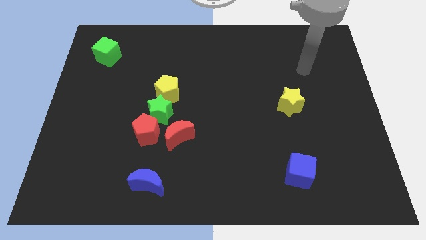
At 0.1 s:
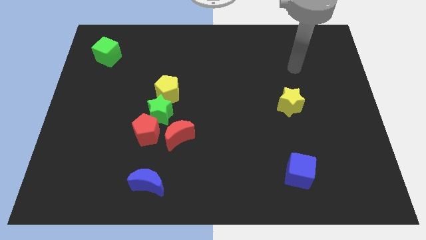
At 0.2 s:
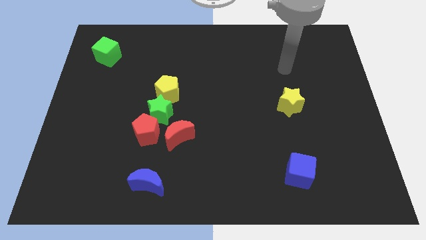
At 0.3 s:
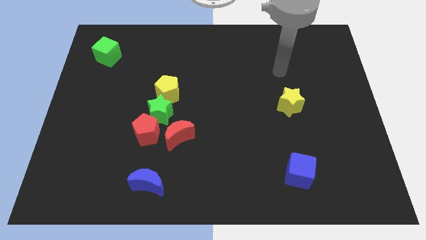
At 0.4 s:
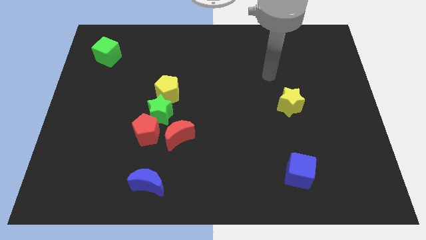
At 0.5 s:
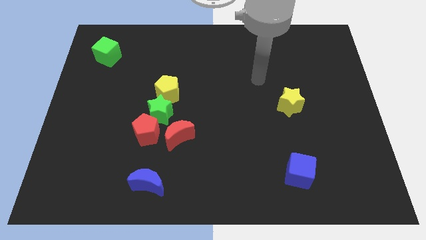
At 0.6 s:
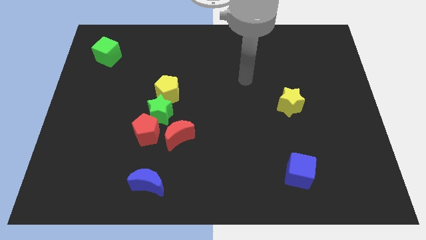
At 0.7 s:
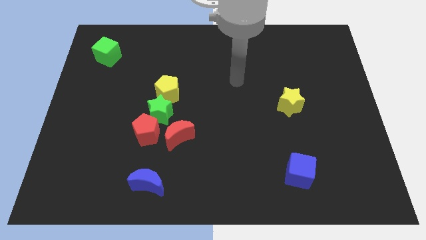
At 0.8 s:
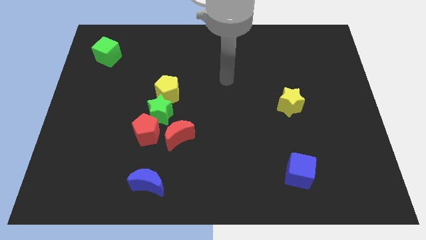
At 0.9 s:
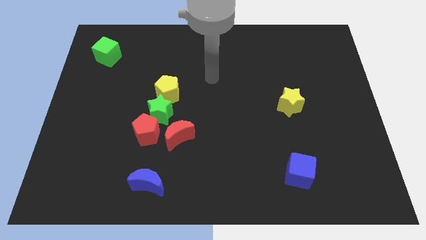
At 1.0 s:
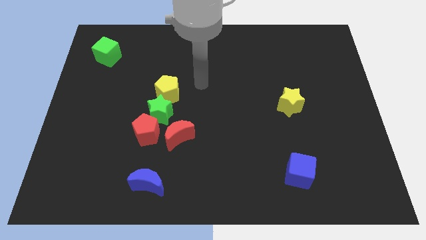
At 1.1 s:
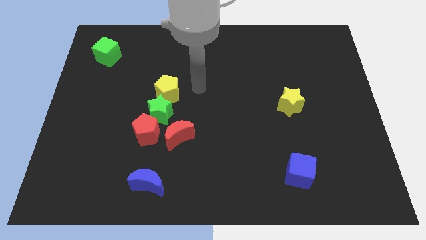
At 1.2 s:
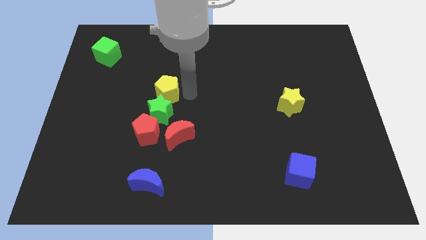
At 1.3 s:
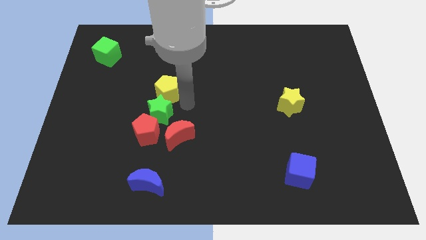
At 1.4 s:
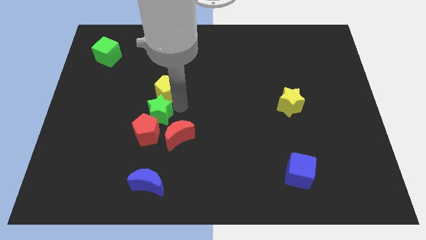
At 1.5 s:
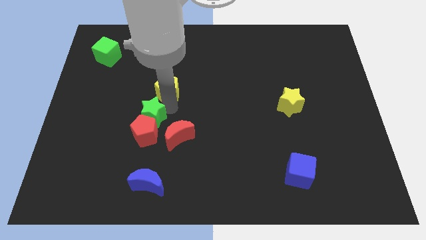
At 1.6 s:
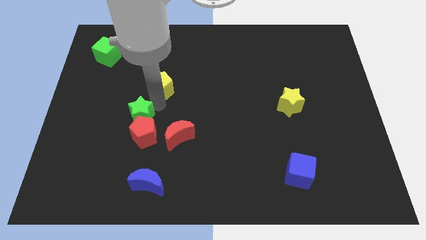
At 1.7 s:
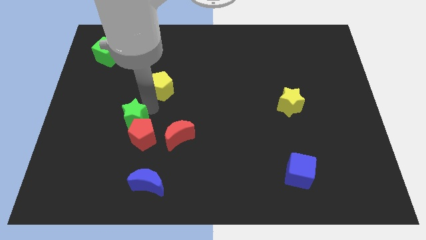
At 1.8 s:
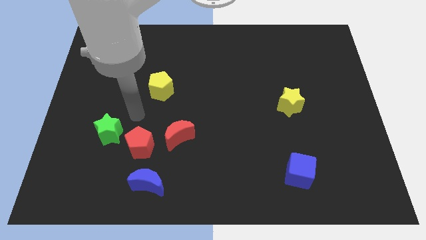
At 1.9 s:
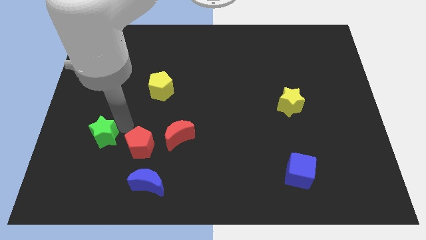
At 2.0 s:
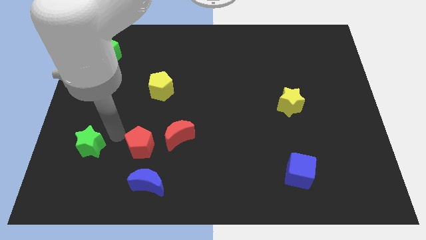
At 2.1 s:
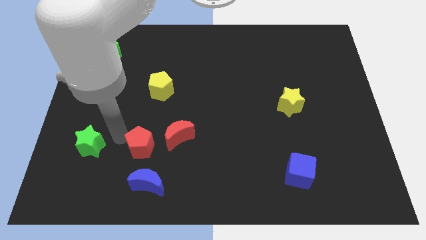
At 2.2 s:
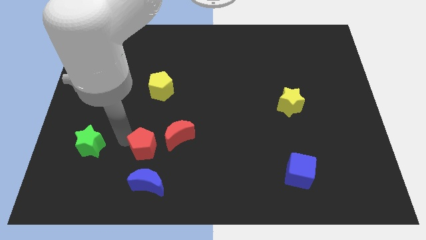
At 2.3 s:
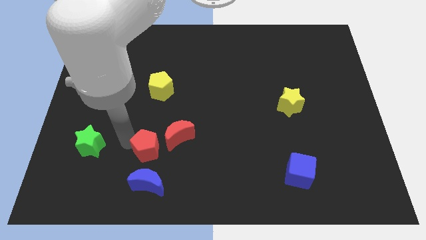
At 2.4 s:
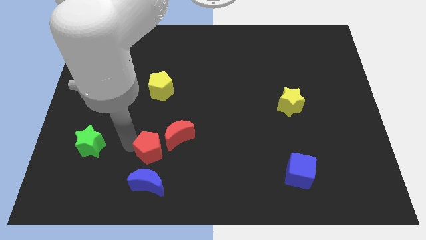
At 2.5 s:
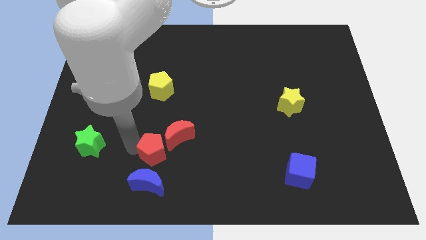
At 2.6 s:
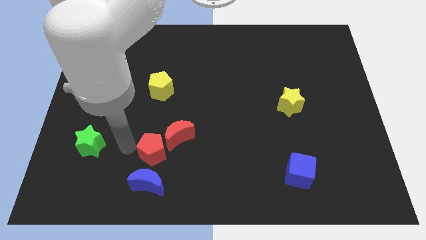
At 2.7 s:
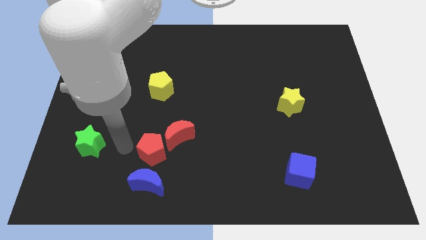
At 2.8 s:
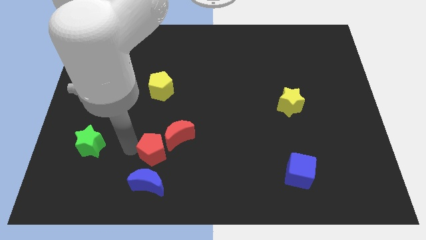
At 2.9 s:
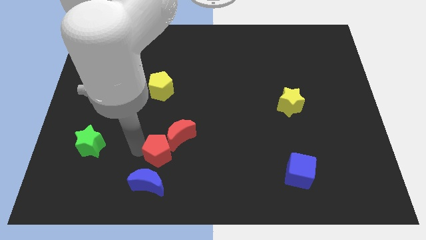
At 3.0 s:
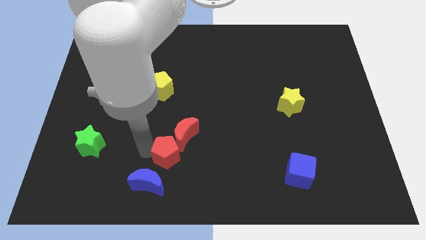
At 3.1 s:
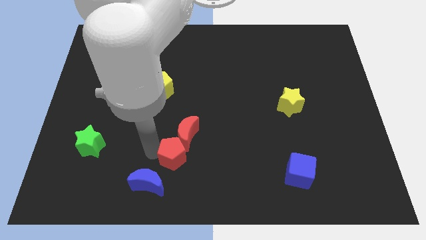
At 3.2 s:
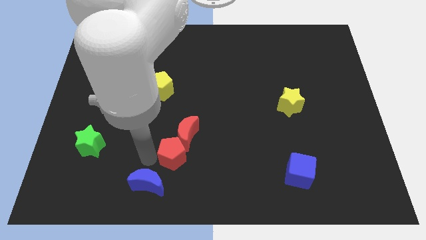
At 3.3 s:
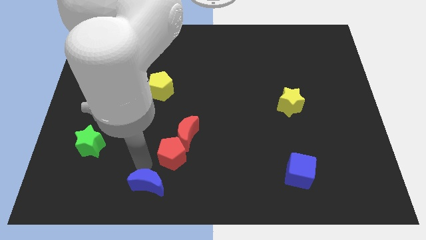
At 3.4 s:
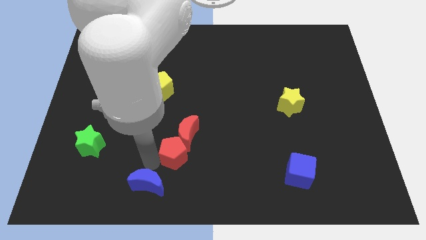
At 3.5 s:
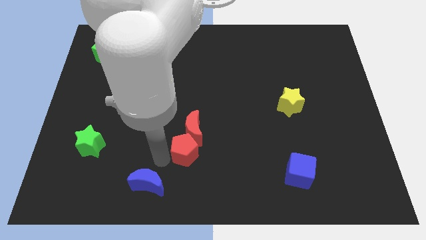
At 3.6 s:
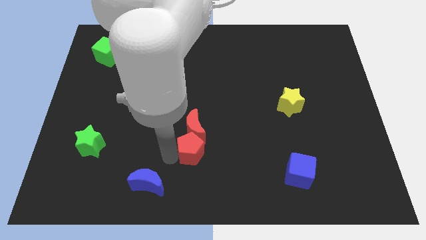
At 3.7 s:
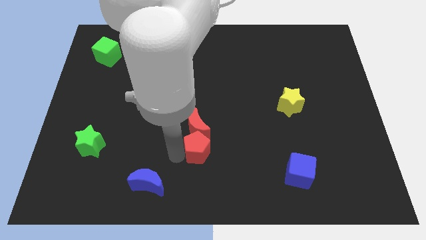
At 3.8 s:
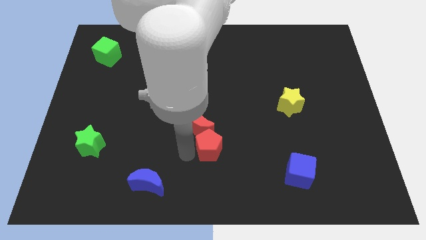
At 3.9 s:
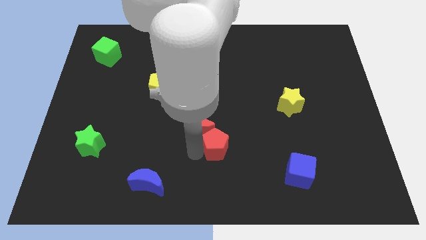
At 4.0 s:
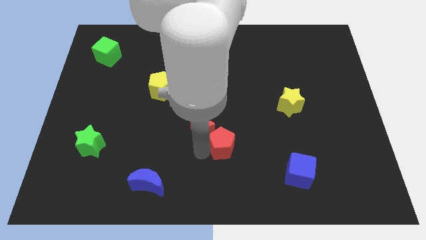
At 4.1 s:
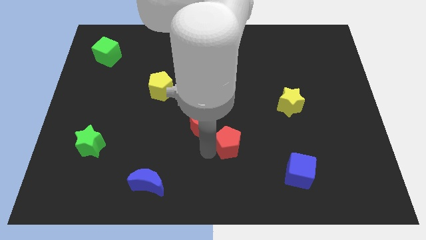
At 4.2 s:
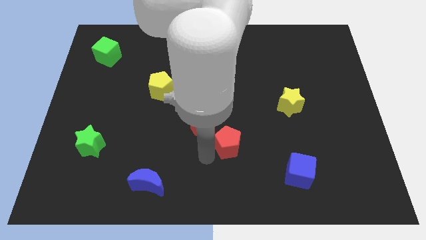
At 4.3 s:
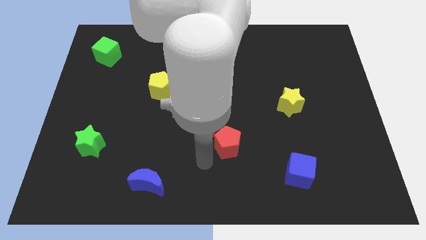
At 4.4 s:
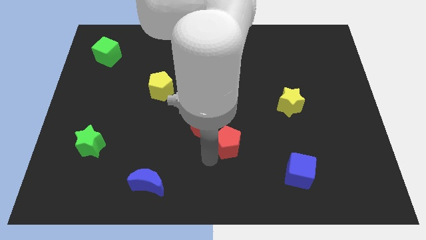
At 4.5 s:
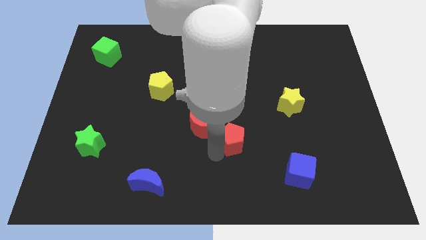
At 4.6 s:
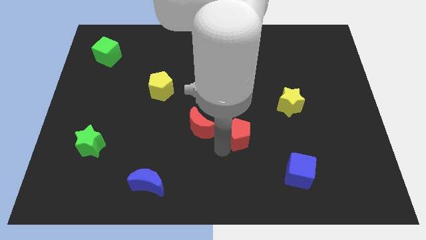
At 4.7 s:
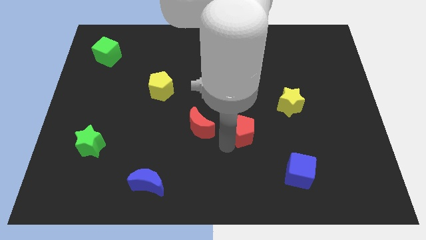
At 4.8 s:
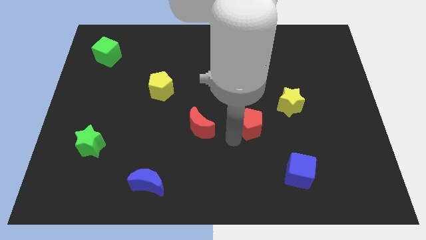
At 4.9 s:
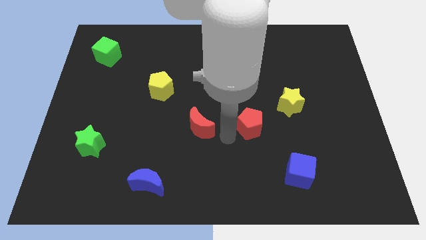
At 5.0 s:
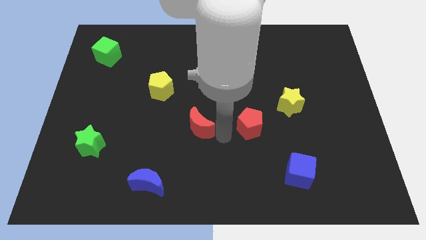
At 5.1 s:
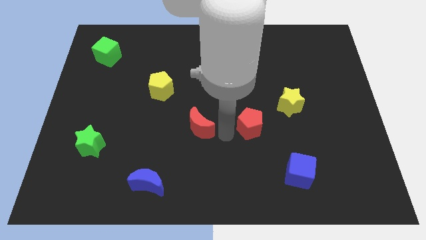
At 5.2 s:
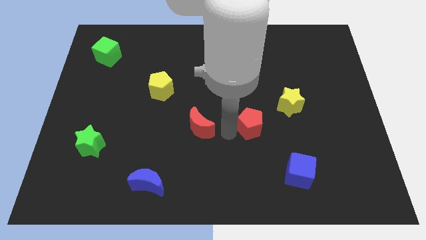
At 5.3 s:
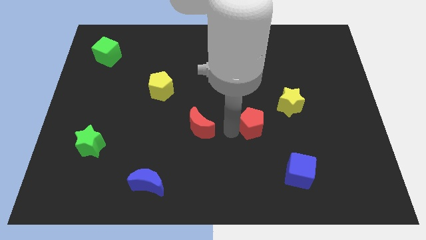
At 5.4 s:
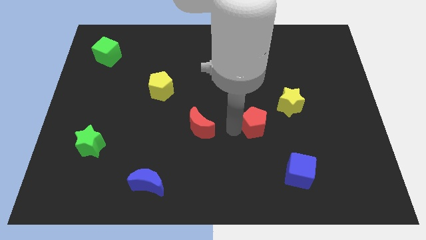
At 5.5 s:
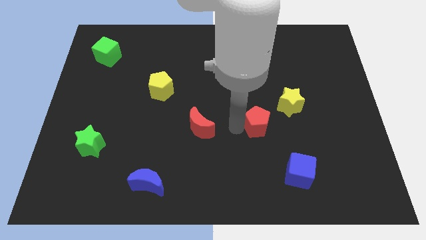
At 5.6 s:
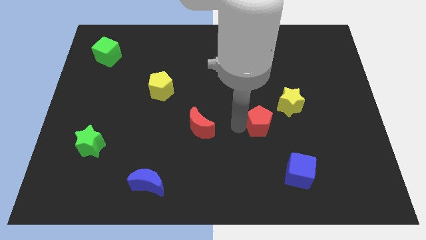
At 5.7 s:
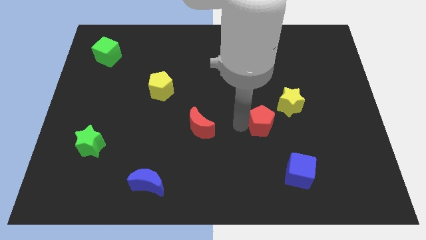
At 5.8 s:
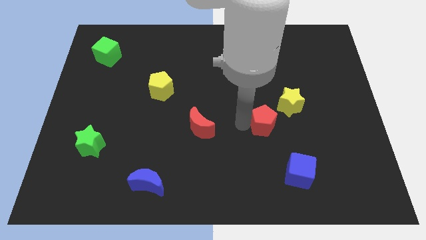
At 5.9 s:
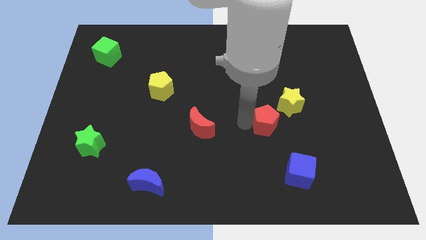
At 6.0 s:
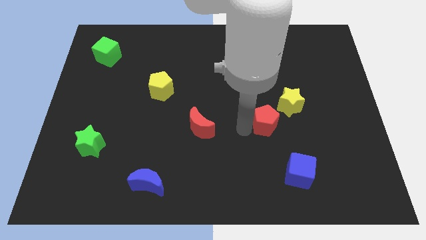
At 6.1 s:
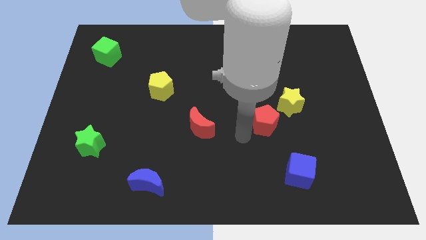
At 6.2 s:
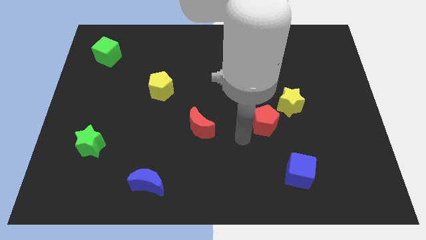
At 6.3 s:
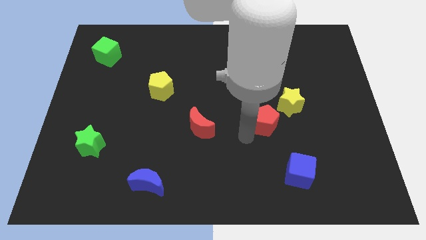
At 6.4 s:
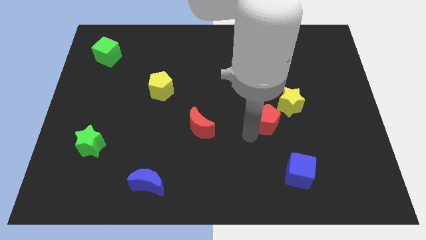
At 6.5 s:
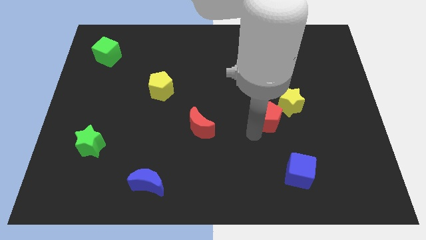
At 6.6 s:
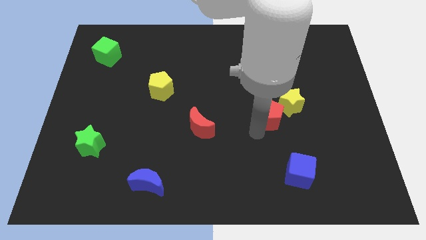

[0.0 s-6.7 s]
move the red pentagon next to the yellow star
